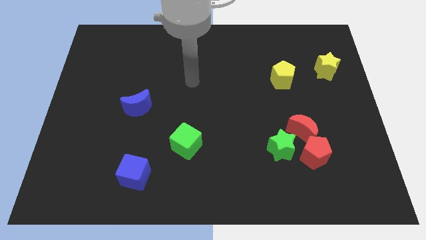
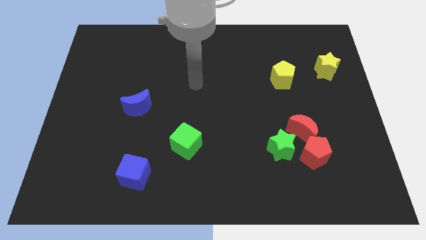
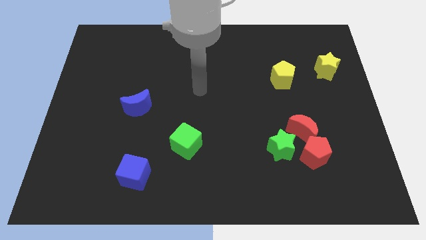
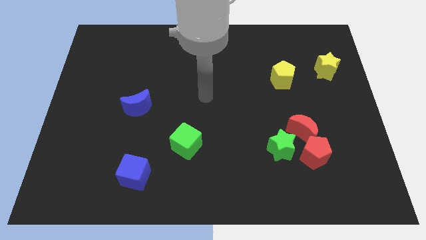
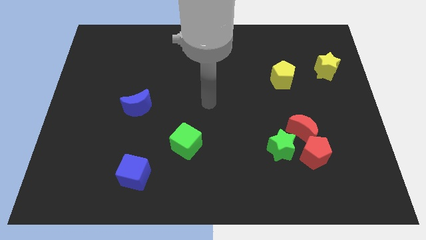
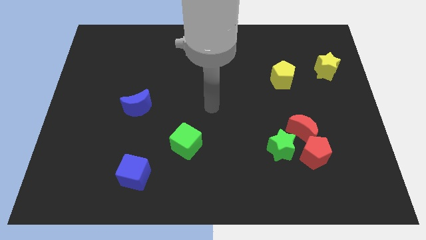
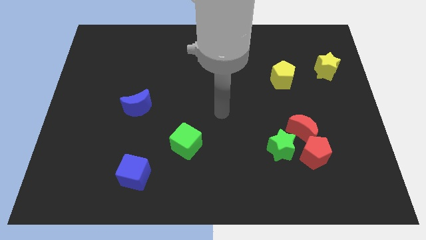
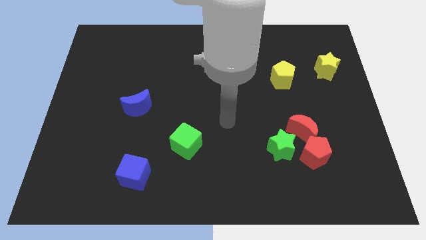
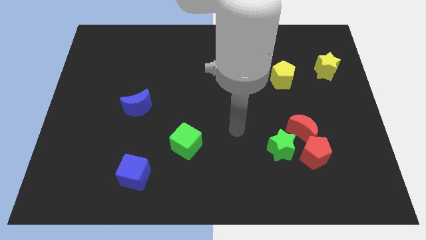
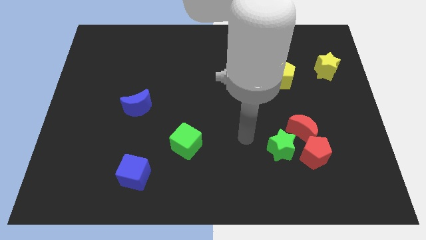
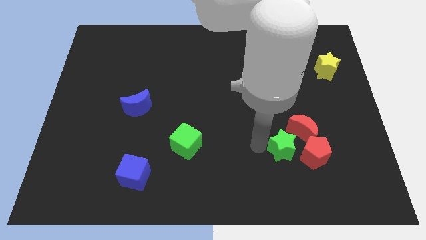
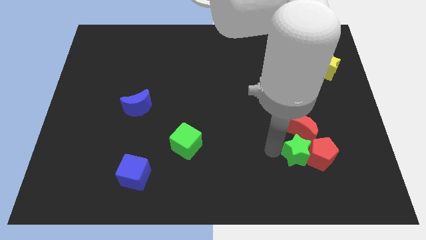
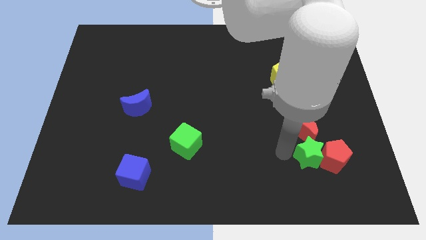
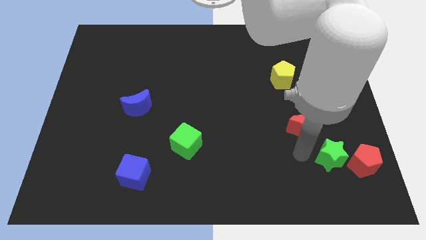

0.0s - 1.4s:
pull the red moon apart from the red pentagon and green star

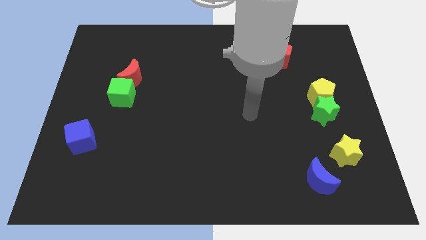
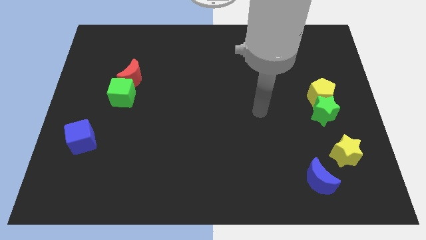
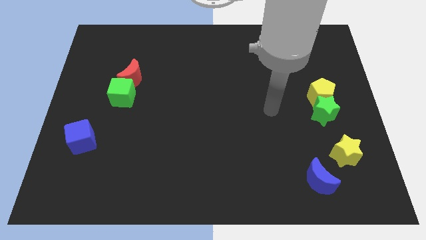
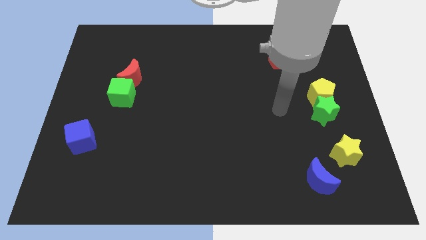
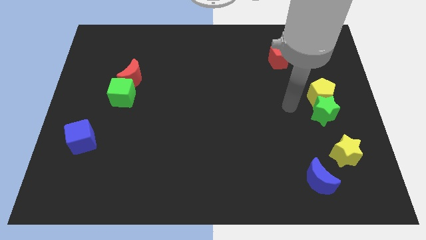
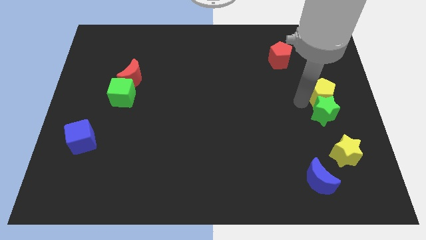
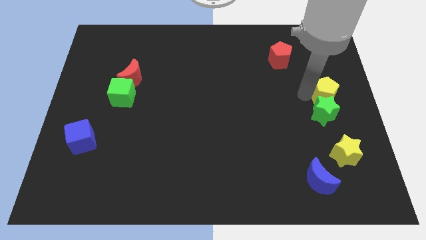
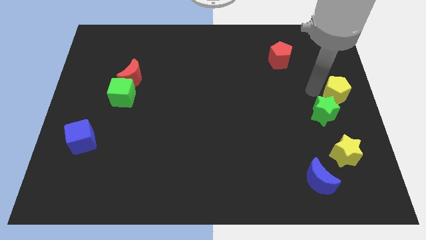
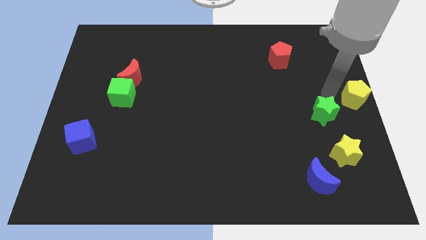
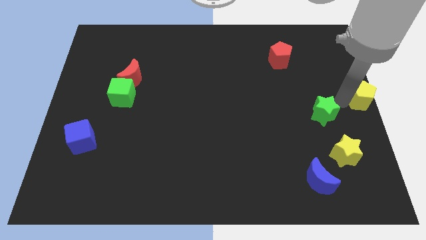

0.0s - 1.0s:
separate the green star from the yellow pentagon

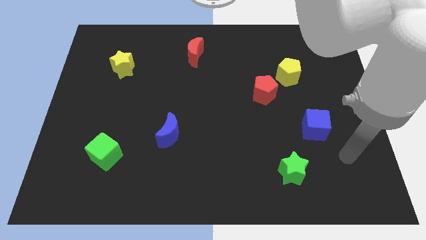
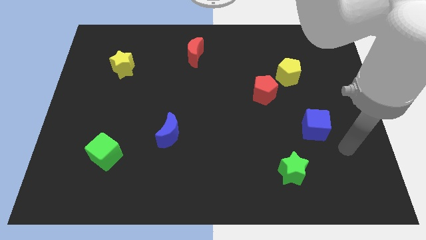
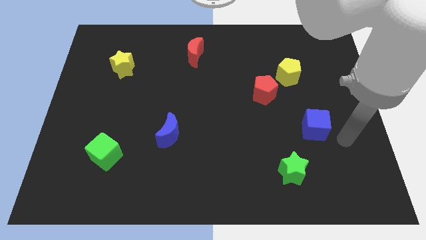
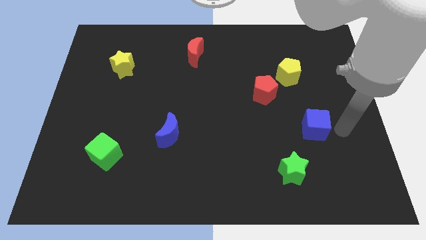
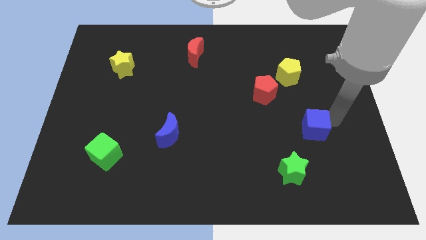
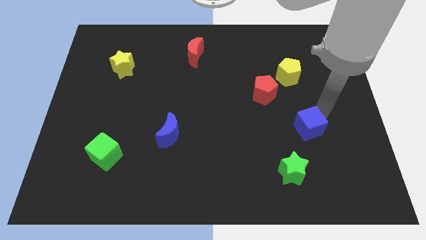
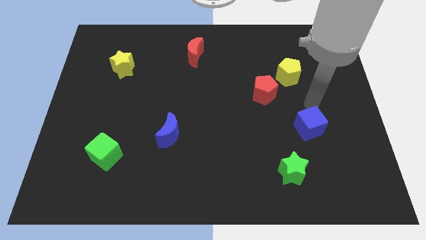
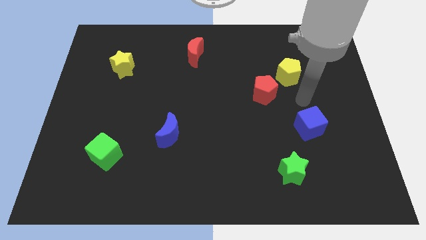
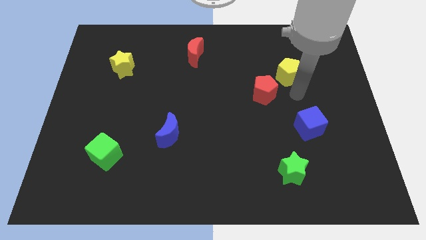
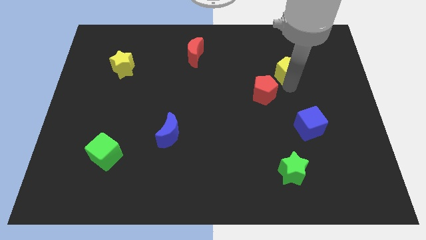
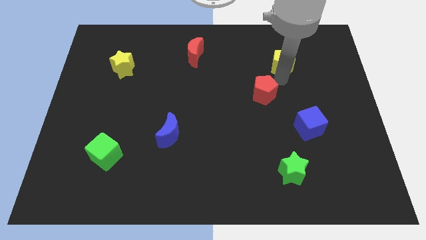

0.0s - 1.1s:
pull the red pentagon apart from the yellow pentagon

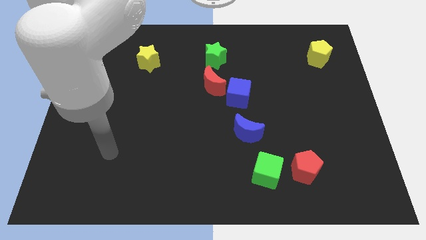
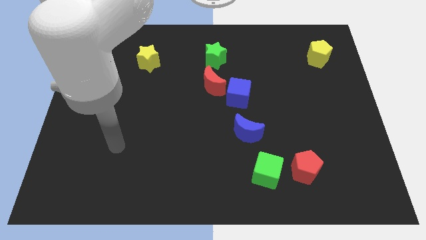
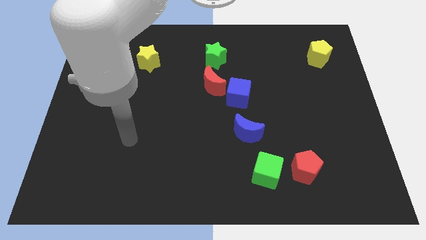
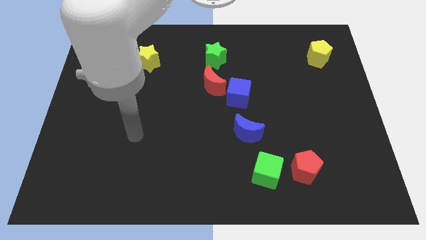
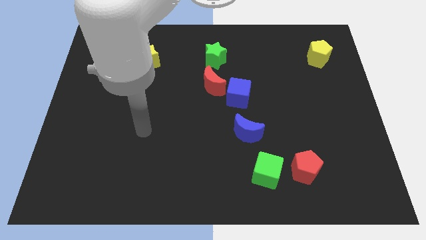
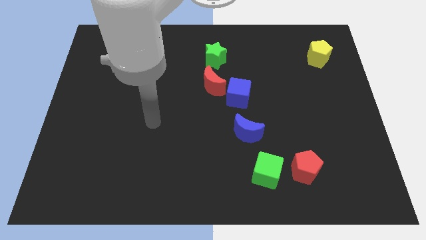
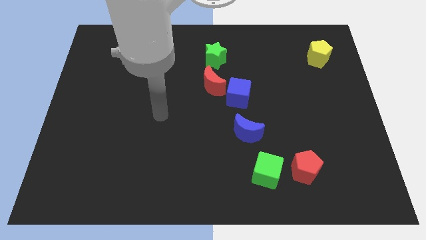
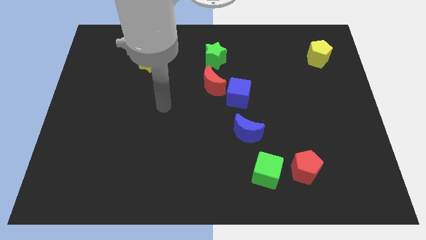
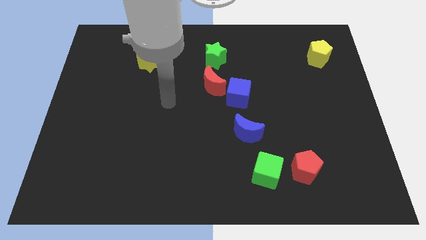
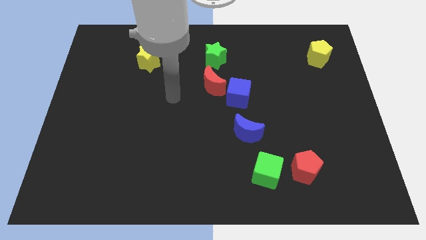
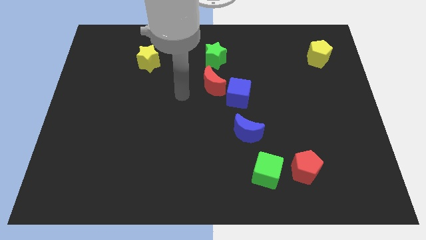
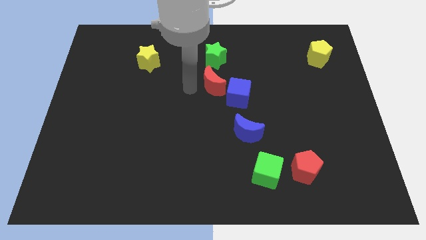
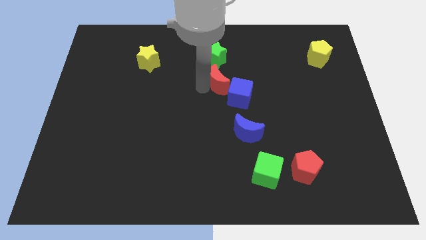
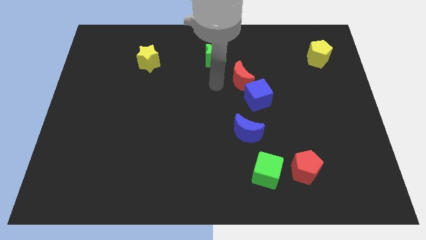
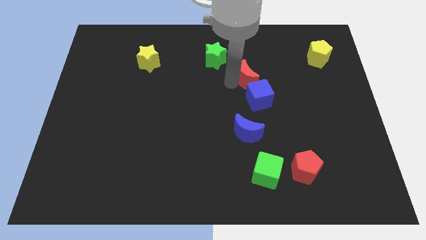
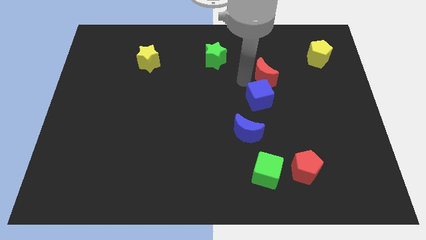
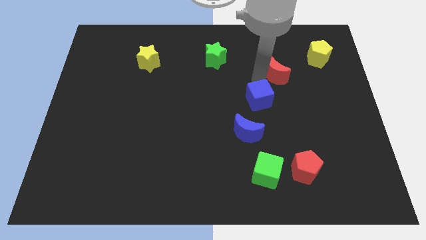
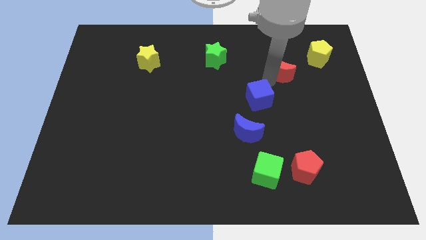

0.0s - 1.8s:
pull the blue cube apart from the red moon

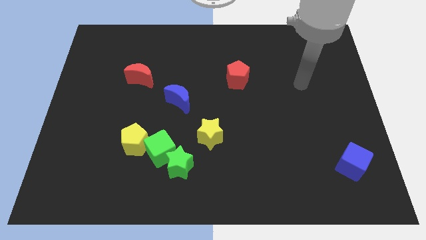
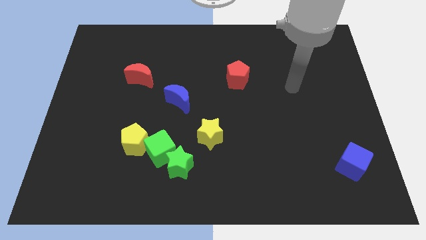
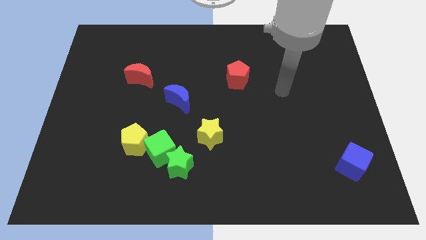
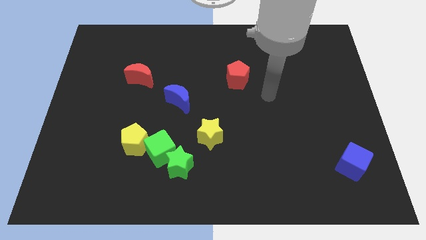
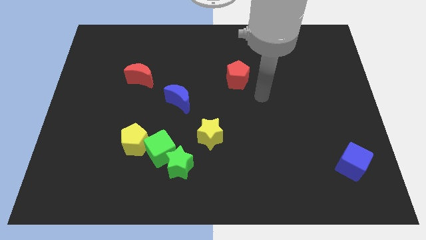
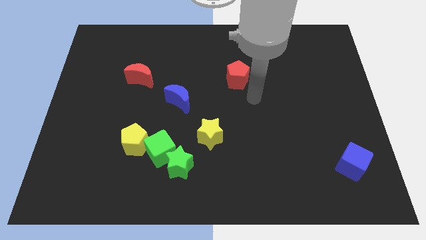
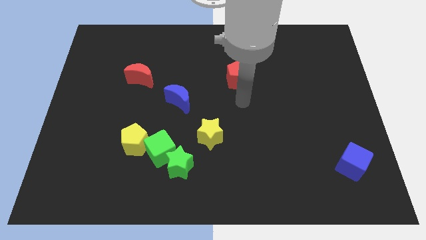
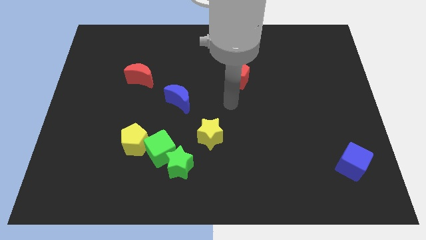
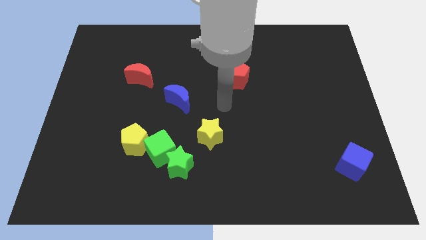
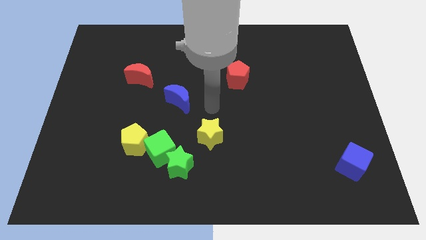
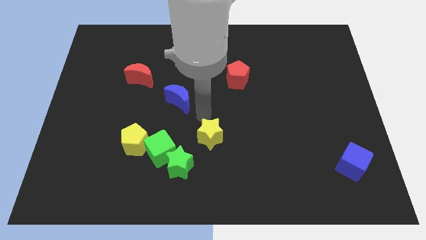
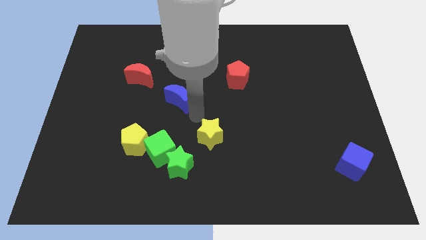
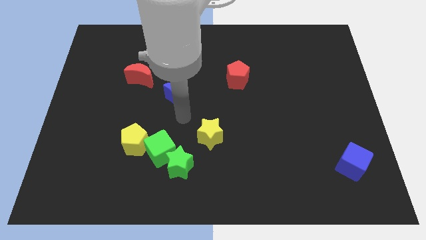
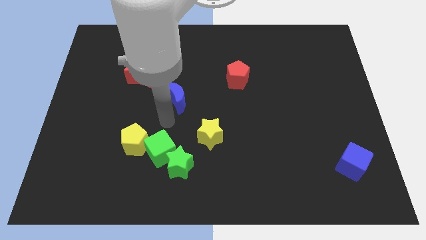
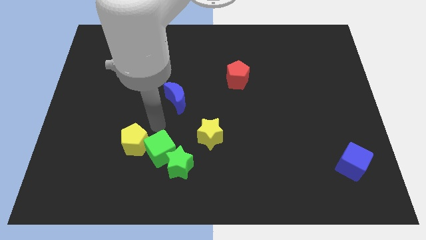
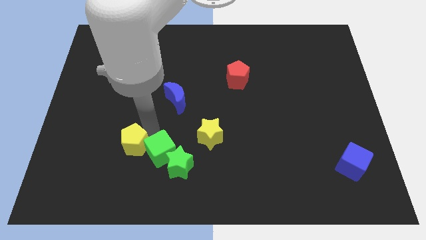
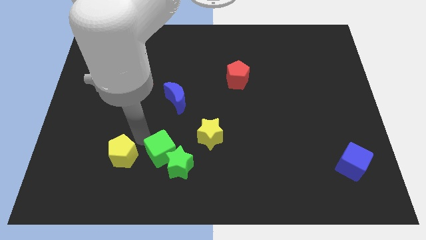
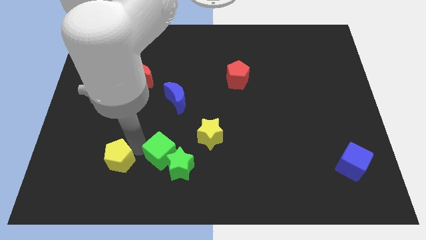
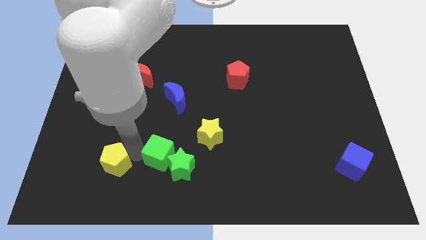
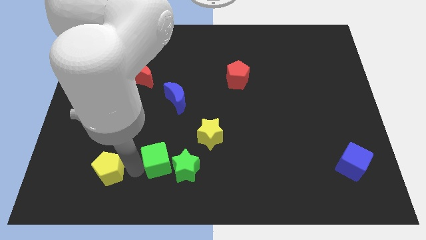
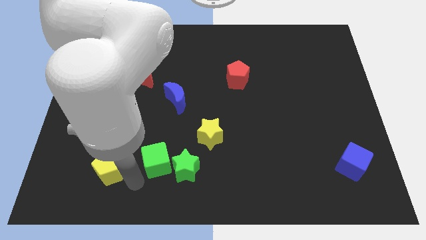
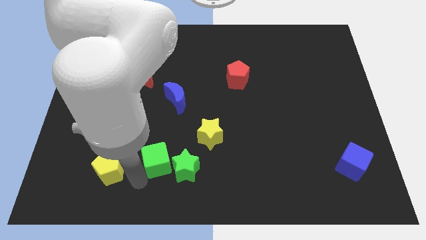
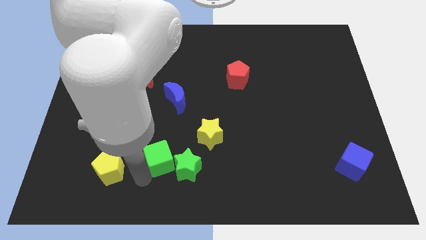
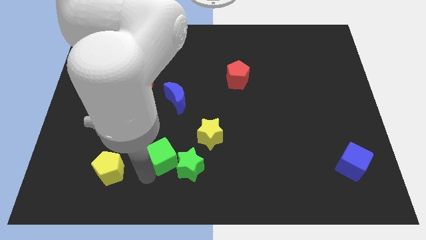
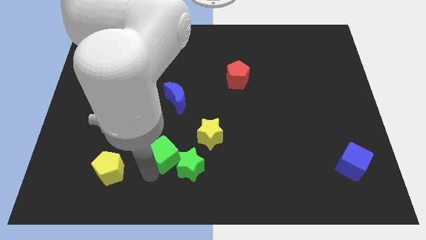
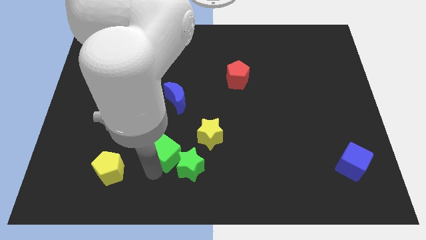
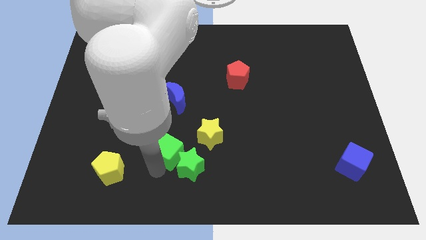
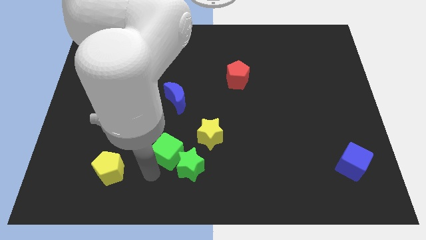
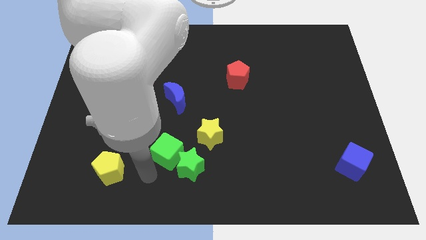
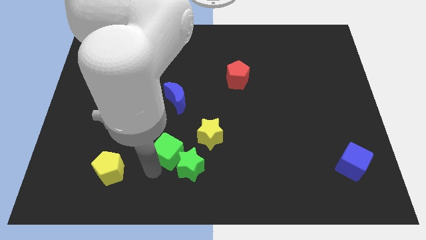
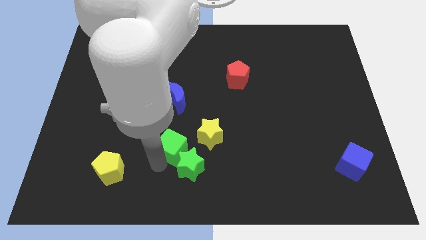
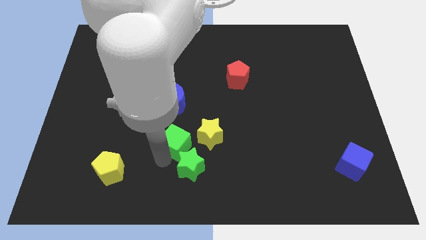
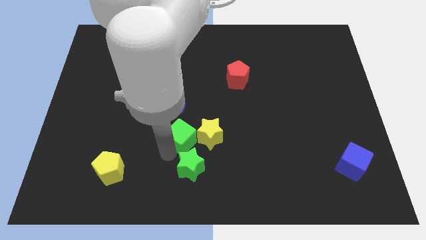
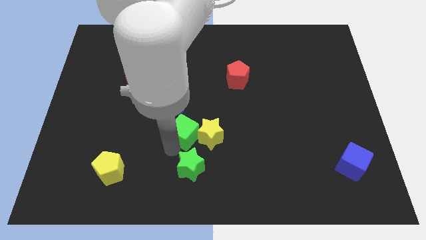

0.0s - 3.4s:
separate the green cube from the green star and yellow pentagon

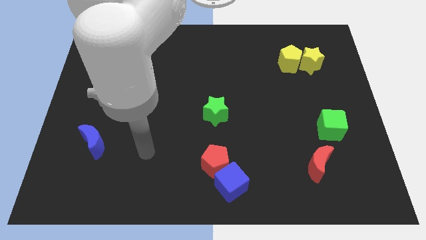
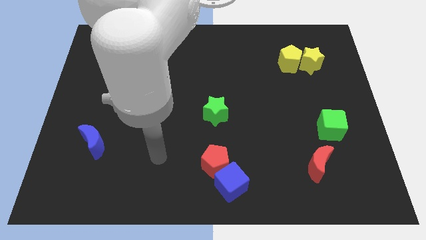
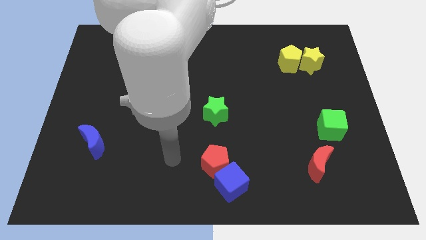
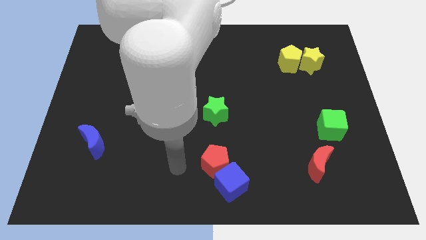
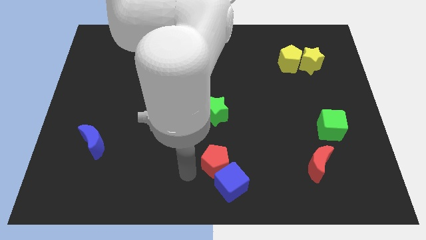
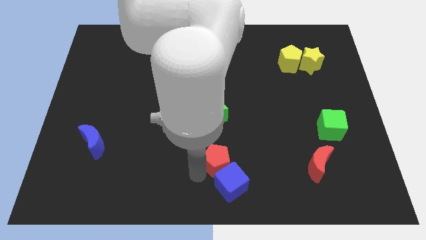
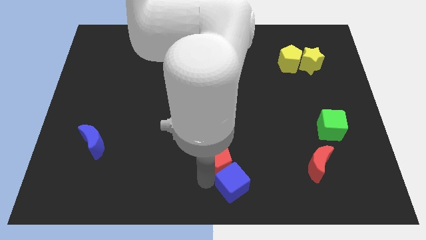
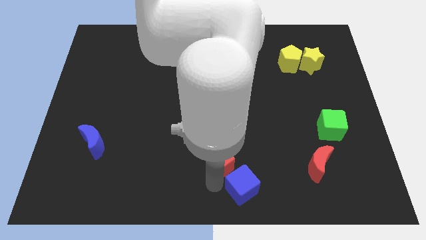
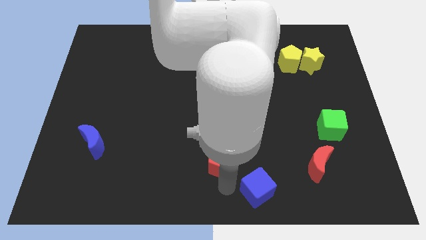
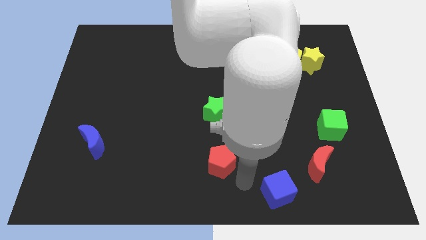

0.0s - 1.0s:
separate the red pentagon from the blue cube
